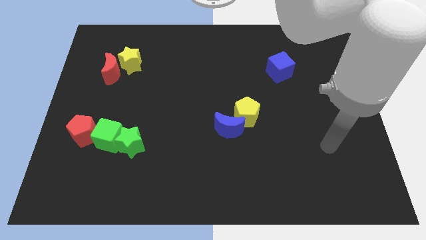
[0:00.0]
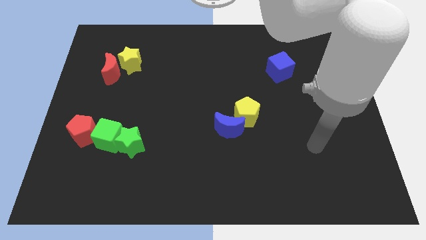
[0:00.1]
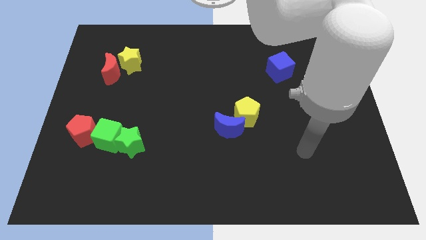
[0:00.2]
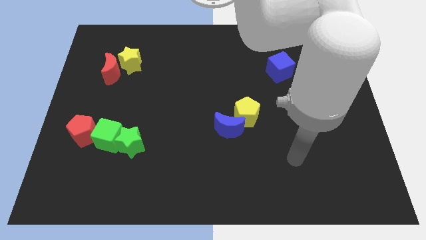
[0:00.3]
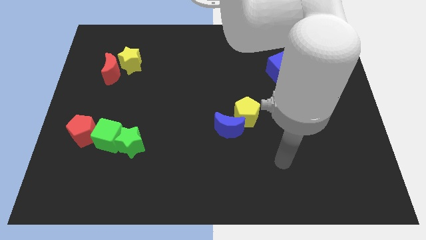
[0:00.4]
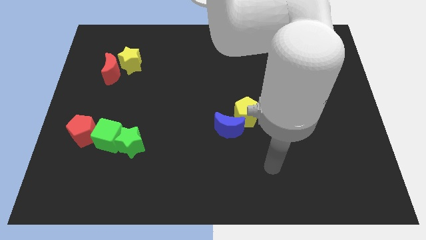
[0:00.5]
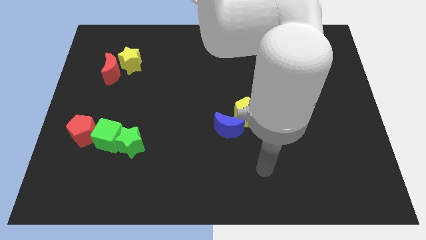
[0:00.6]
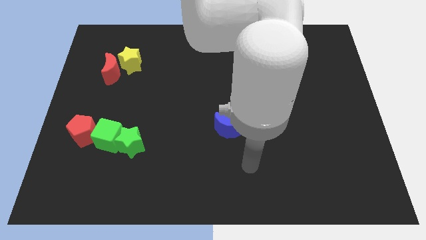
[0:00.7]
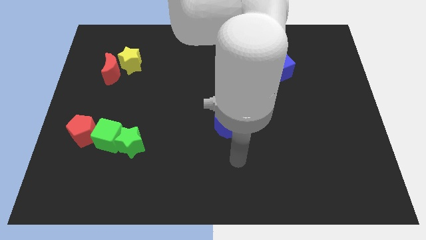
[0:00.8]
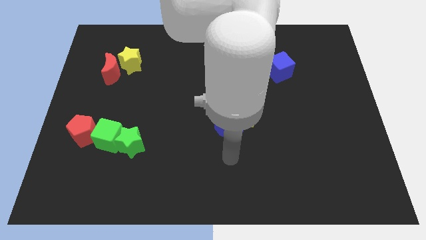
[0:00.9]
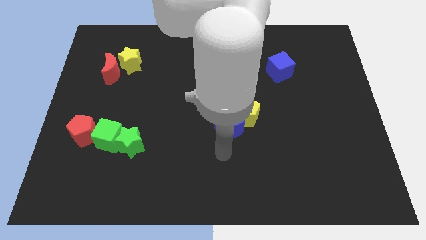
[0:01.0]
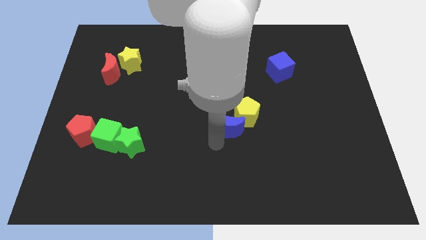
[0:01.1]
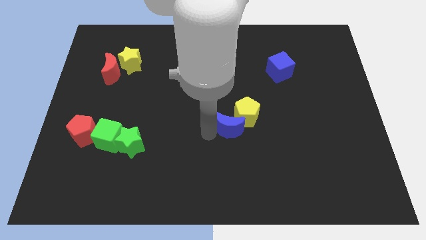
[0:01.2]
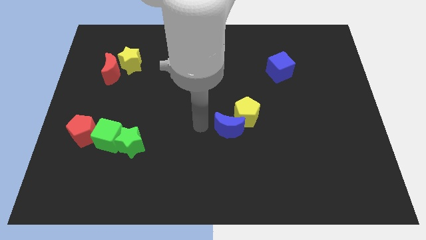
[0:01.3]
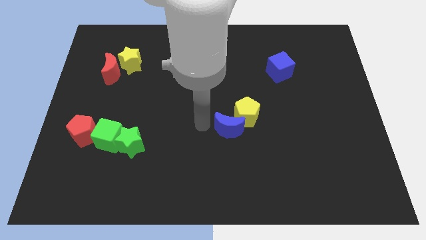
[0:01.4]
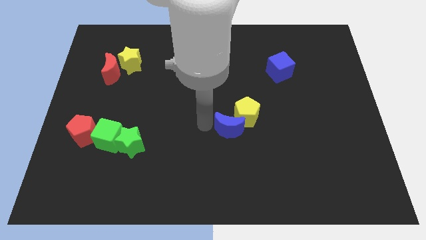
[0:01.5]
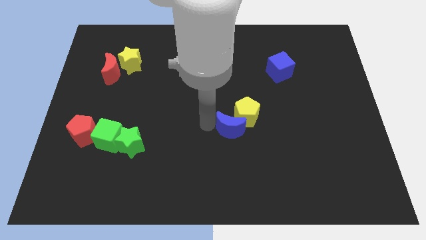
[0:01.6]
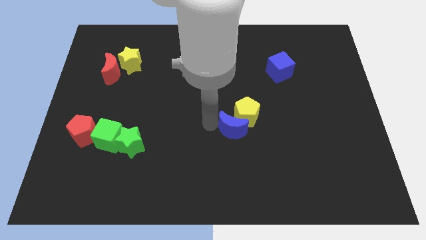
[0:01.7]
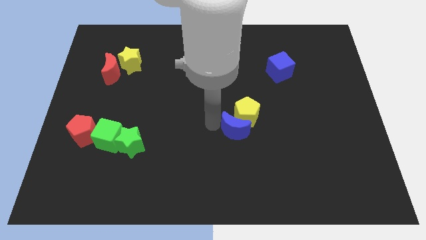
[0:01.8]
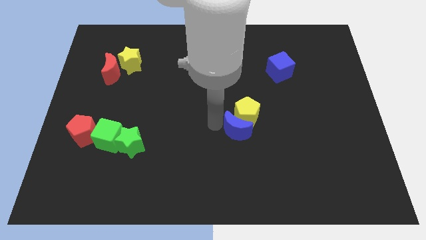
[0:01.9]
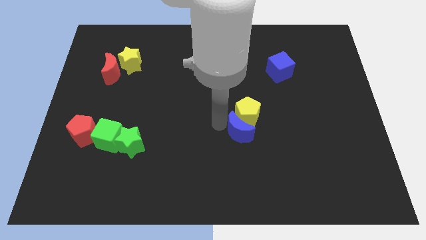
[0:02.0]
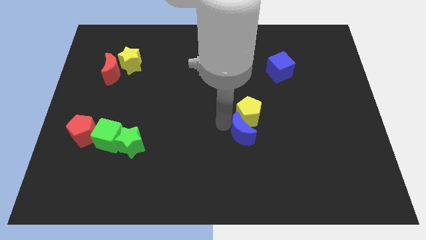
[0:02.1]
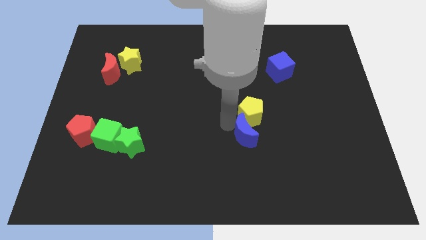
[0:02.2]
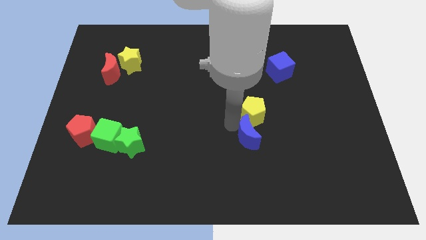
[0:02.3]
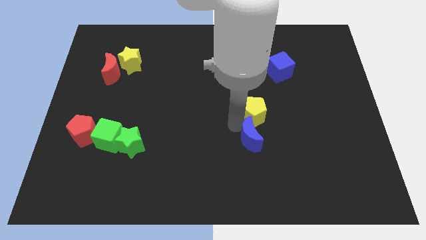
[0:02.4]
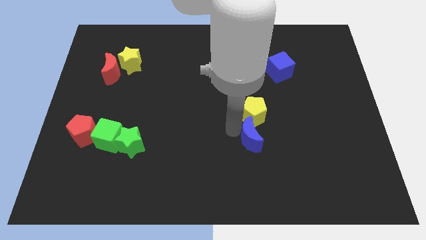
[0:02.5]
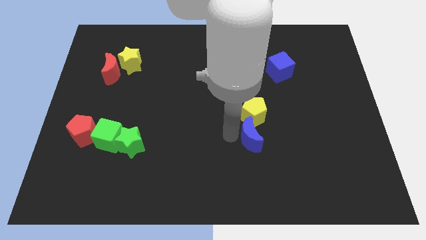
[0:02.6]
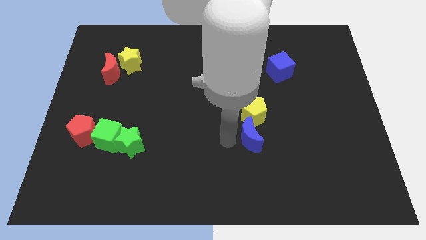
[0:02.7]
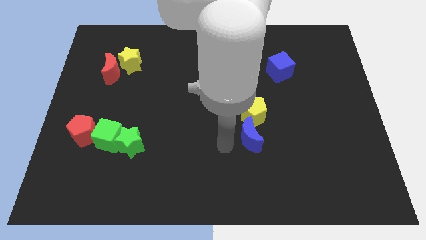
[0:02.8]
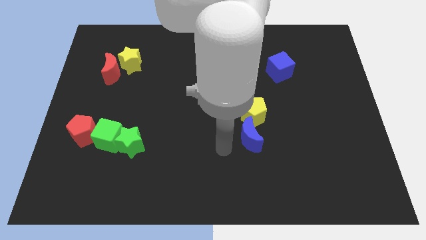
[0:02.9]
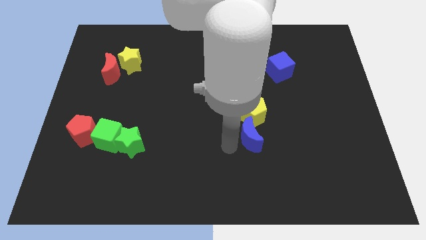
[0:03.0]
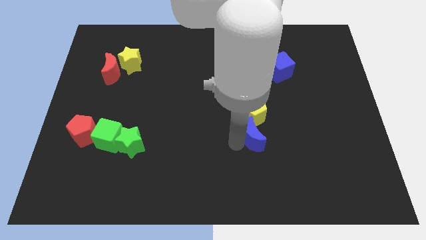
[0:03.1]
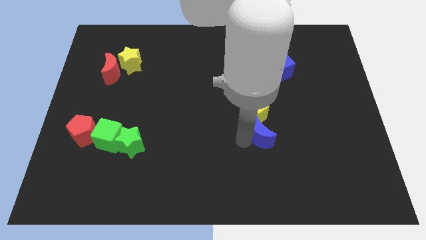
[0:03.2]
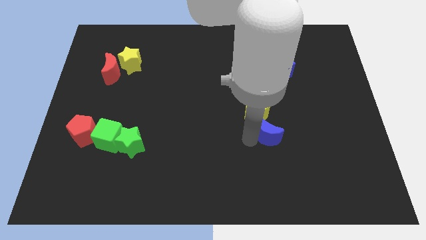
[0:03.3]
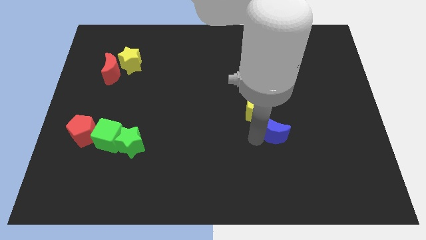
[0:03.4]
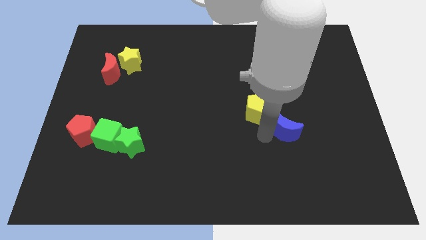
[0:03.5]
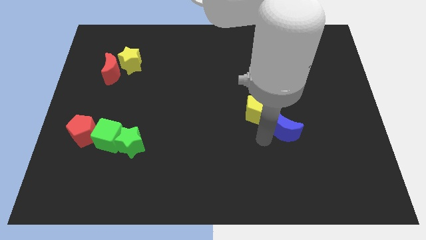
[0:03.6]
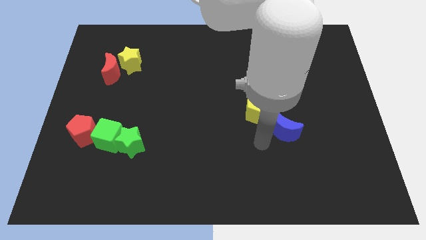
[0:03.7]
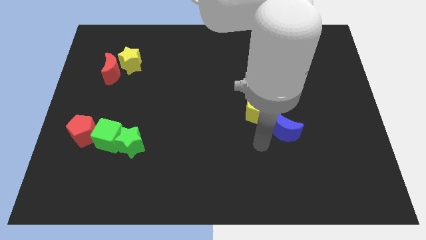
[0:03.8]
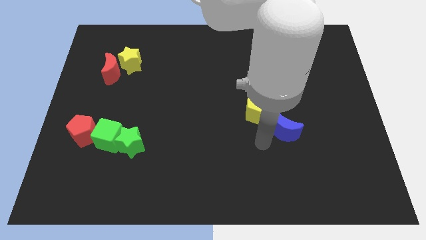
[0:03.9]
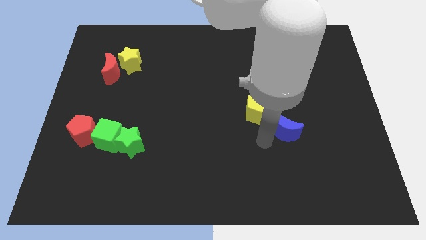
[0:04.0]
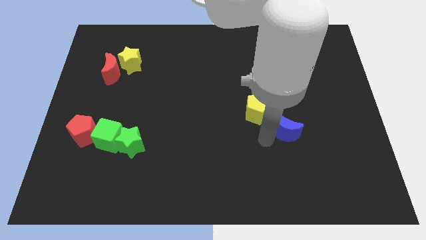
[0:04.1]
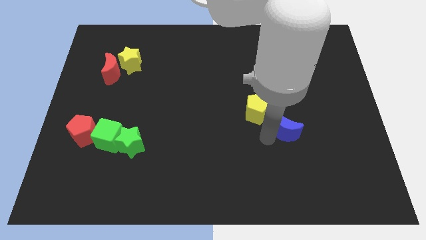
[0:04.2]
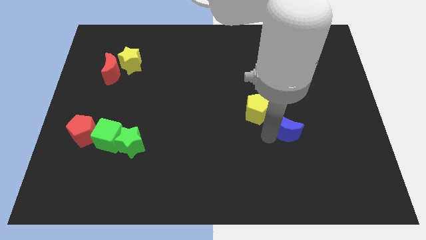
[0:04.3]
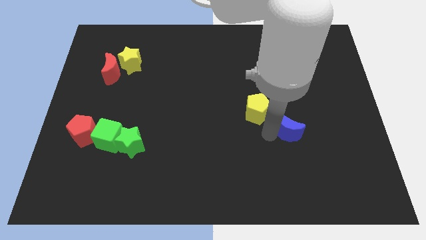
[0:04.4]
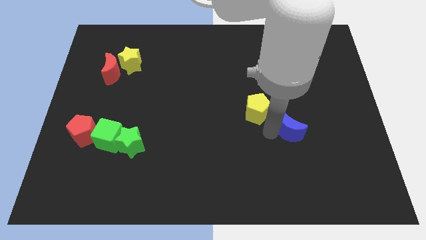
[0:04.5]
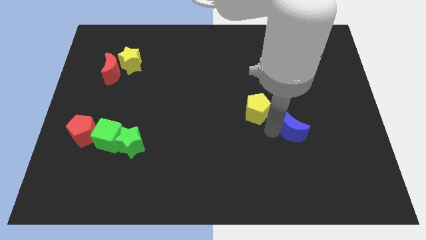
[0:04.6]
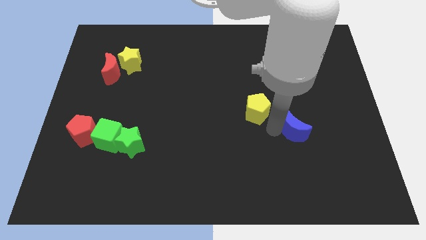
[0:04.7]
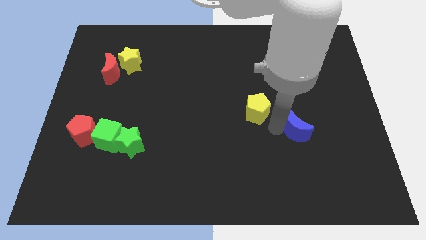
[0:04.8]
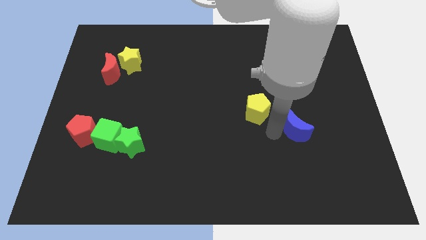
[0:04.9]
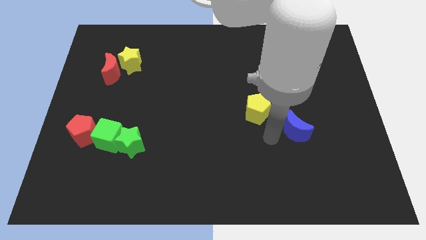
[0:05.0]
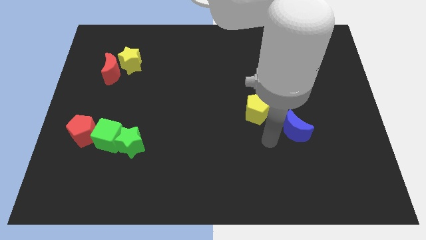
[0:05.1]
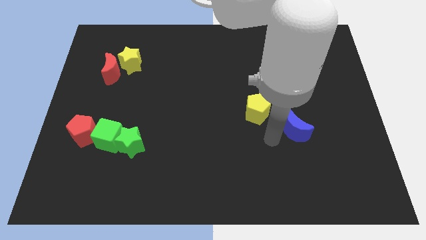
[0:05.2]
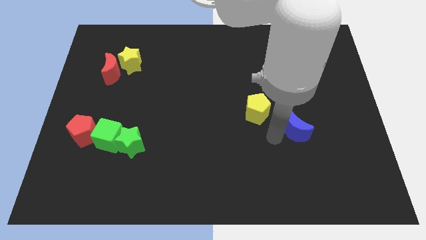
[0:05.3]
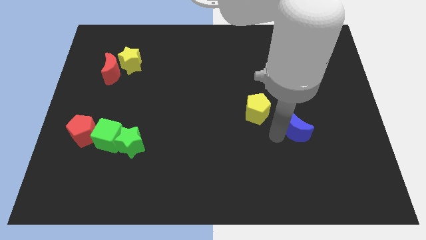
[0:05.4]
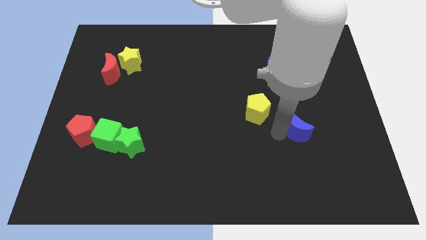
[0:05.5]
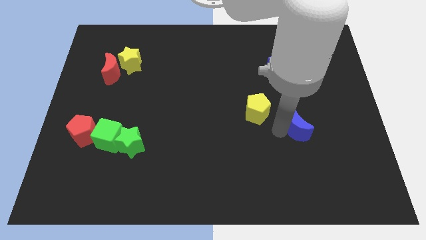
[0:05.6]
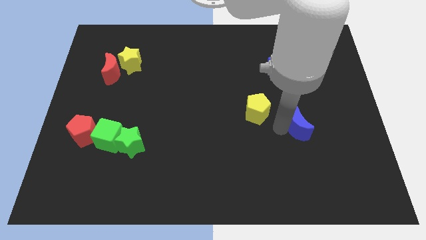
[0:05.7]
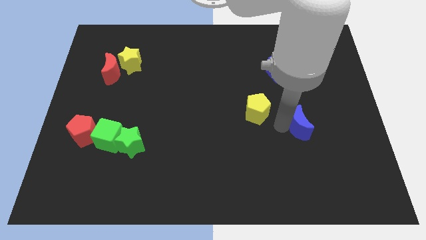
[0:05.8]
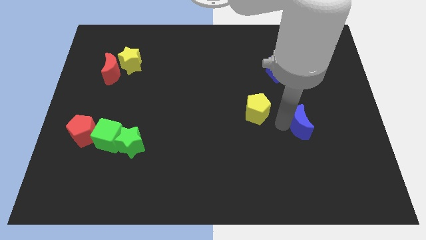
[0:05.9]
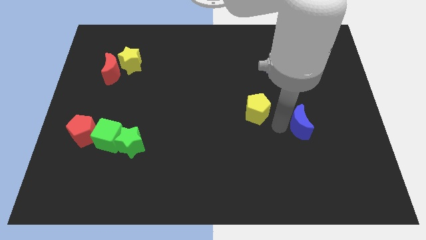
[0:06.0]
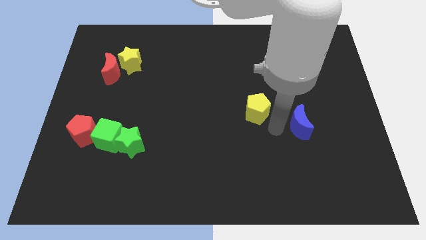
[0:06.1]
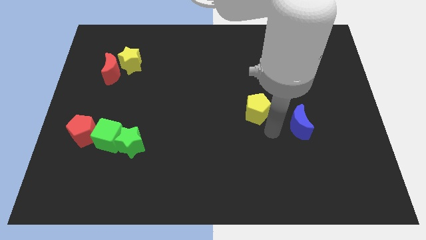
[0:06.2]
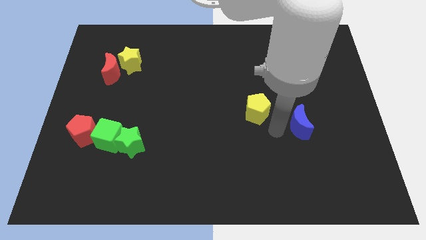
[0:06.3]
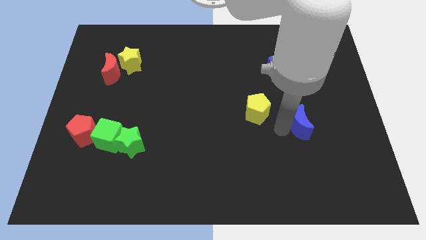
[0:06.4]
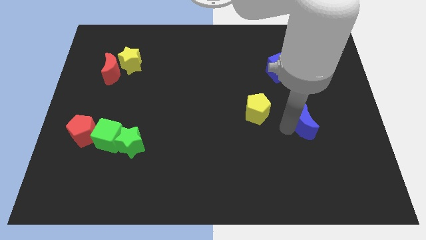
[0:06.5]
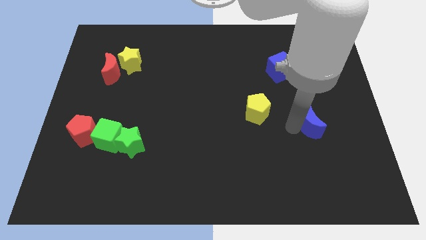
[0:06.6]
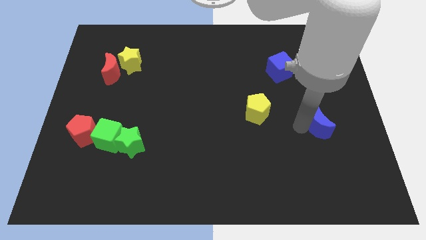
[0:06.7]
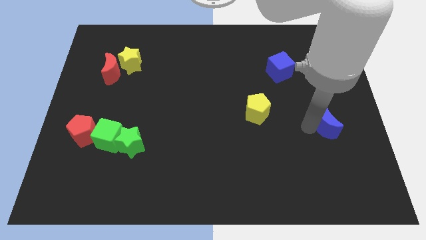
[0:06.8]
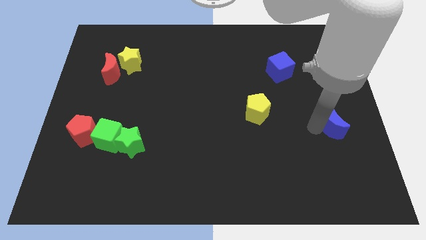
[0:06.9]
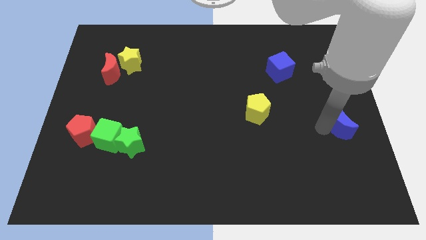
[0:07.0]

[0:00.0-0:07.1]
move the blue moon to the center right

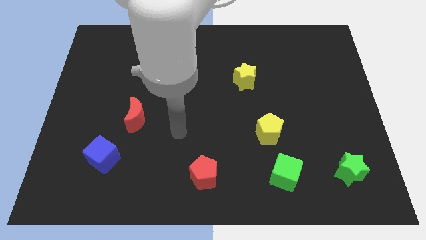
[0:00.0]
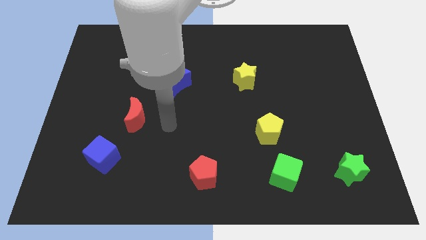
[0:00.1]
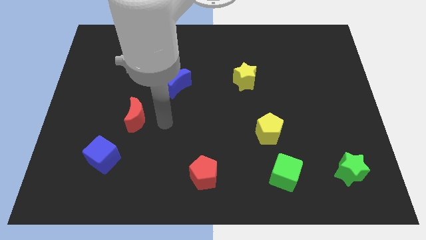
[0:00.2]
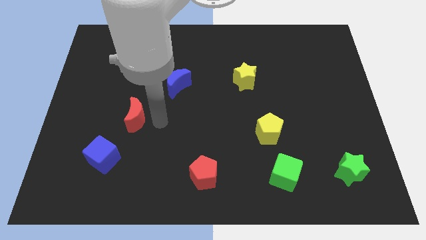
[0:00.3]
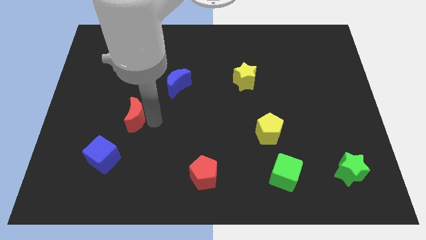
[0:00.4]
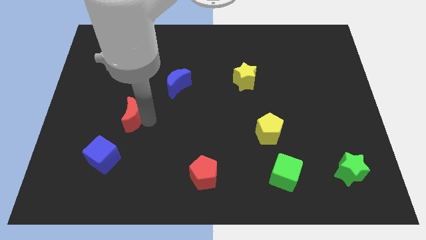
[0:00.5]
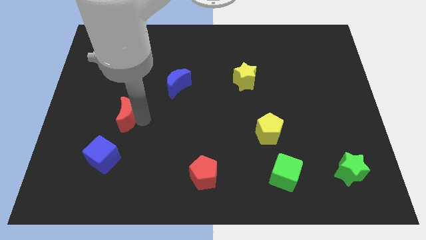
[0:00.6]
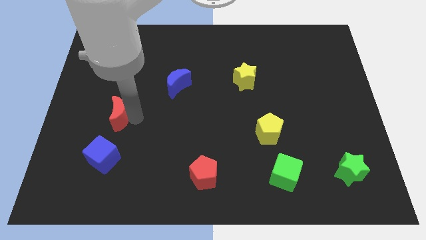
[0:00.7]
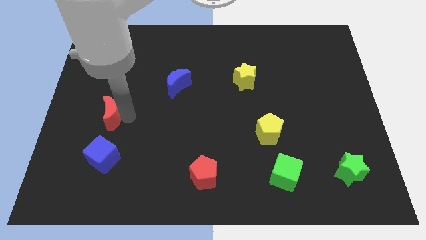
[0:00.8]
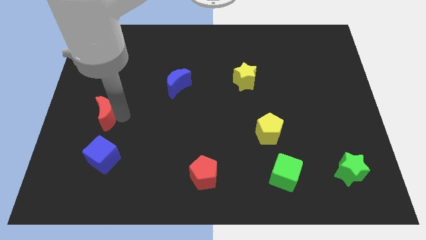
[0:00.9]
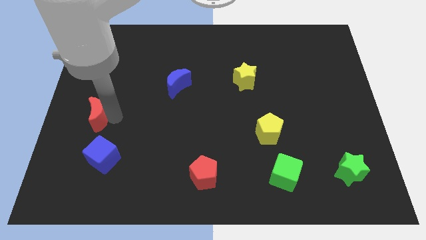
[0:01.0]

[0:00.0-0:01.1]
move the red moon to the center left
